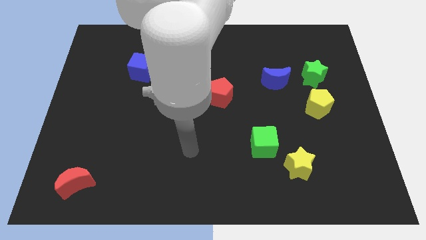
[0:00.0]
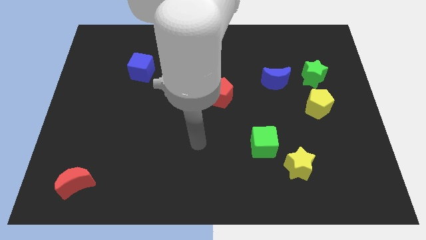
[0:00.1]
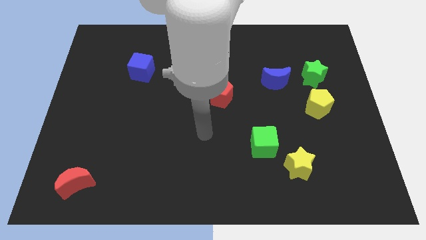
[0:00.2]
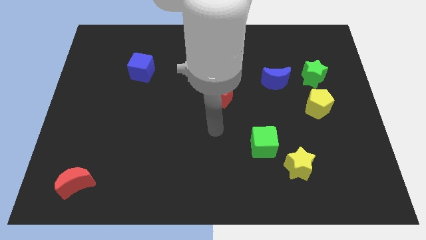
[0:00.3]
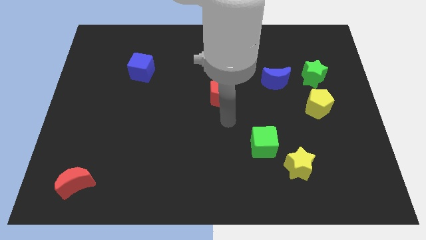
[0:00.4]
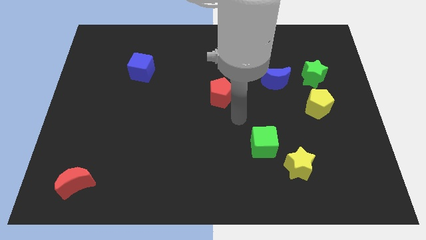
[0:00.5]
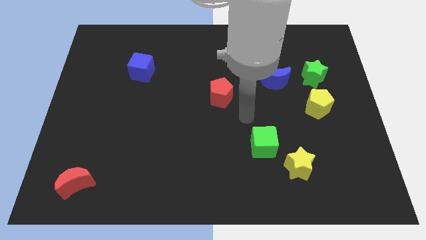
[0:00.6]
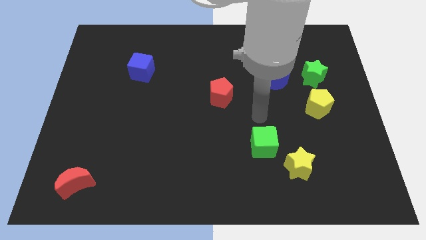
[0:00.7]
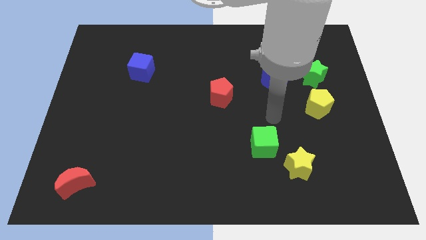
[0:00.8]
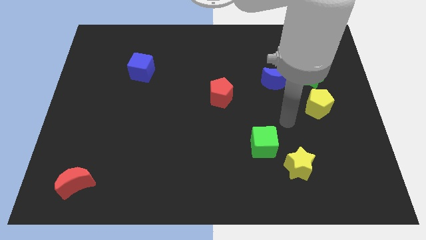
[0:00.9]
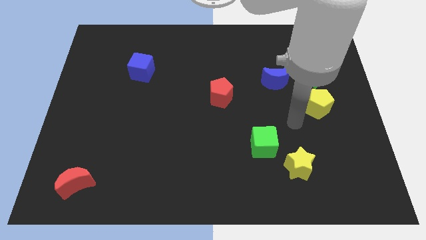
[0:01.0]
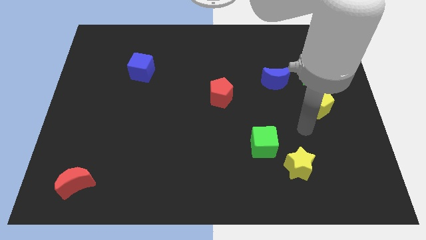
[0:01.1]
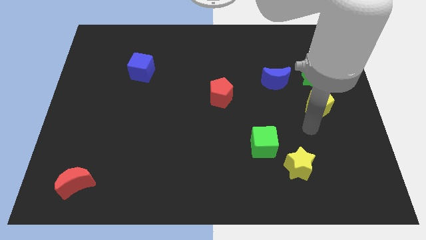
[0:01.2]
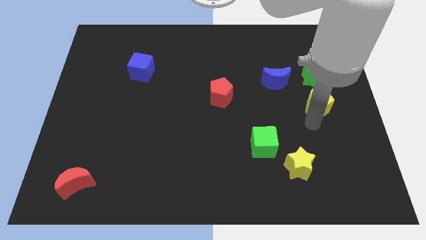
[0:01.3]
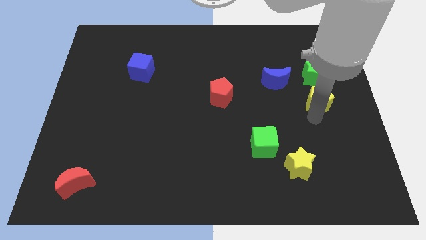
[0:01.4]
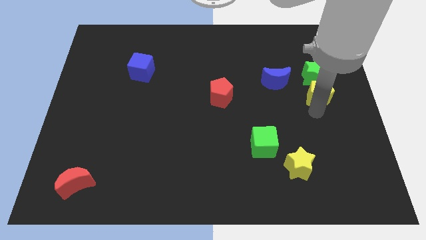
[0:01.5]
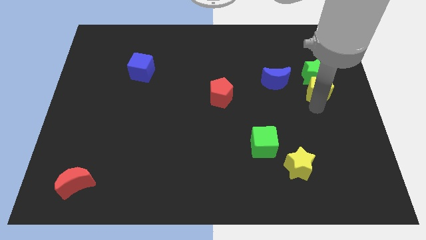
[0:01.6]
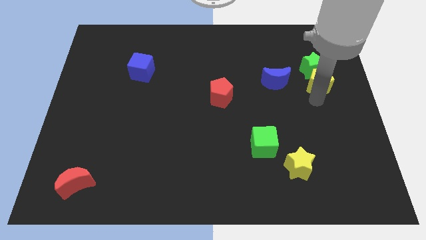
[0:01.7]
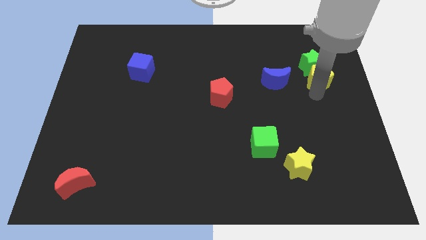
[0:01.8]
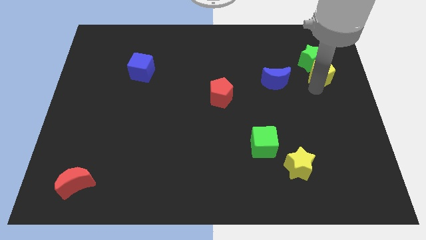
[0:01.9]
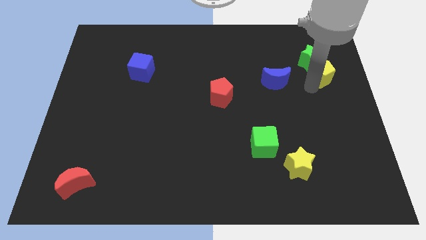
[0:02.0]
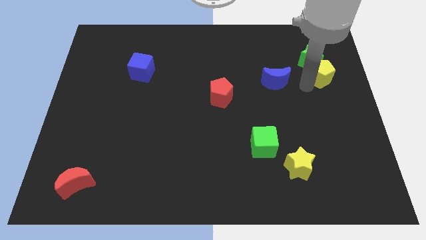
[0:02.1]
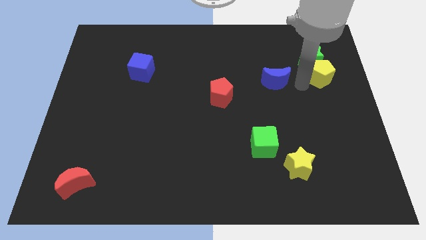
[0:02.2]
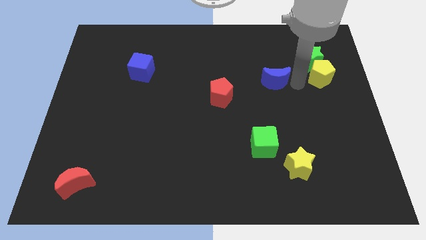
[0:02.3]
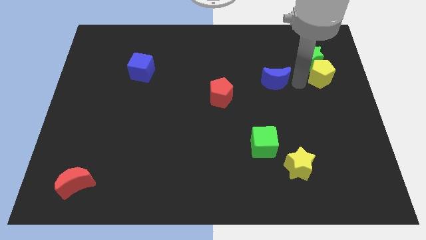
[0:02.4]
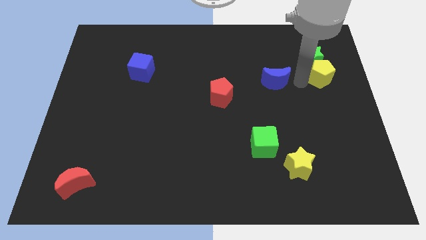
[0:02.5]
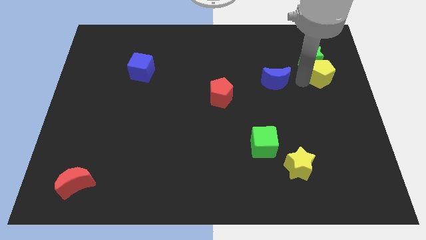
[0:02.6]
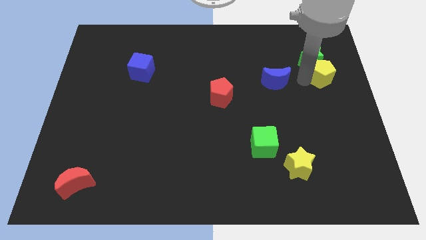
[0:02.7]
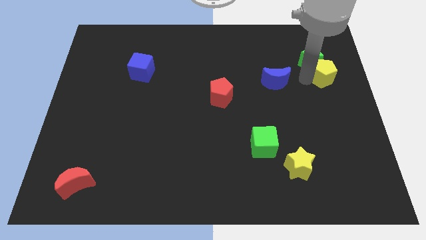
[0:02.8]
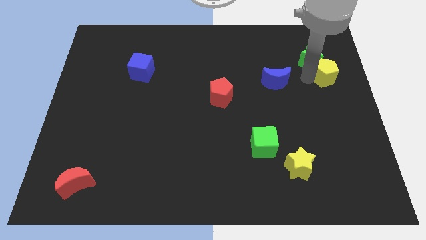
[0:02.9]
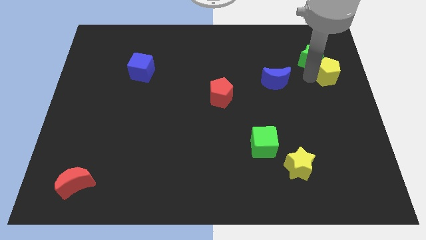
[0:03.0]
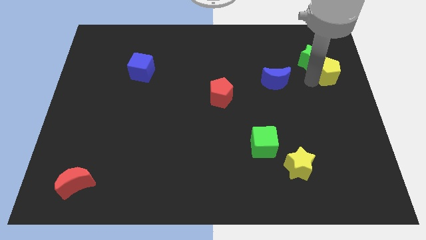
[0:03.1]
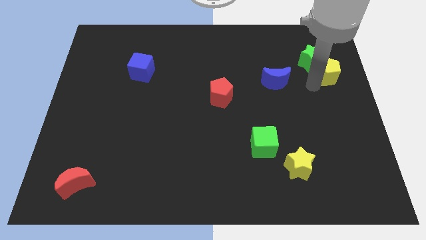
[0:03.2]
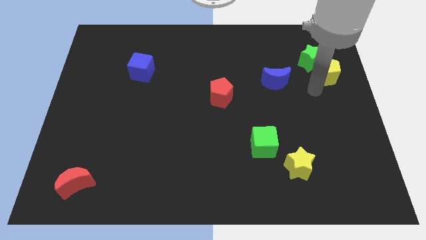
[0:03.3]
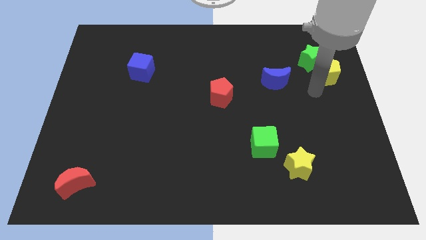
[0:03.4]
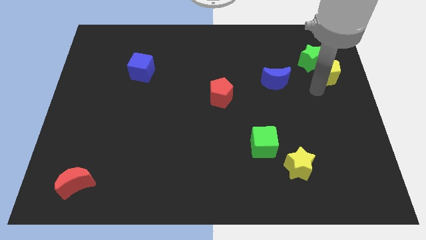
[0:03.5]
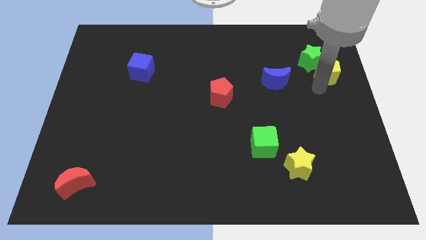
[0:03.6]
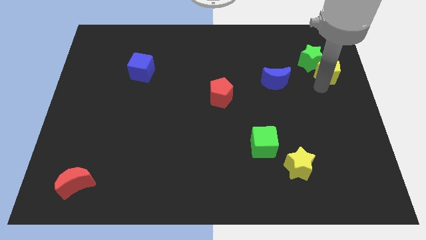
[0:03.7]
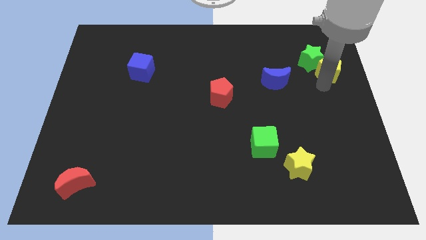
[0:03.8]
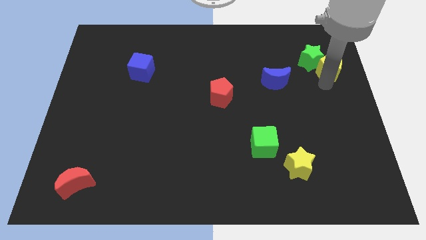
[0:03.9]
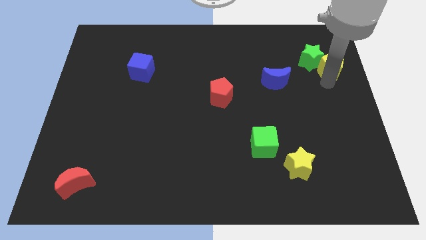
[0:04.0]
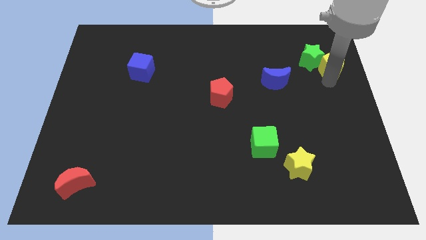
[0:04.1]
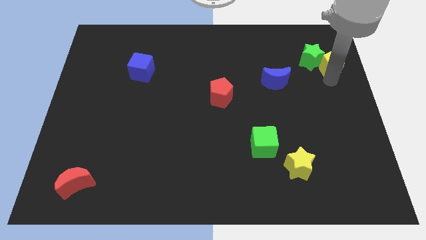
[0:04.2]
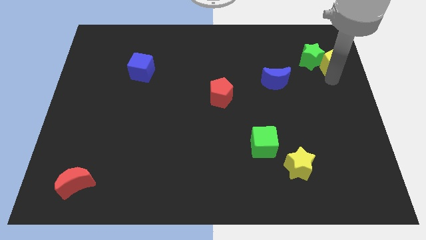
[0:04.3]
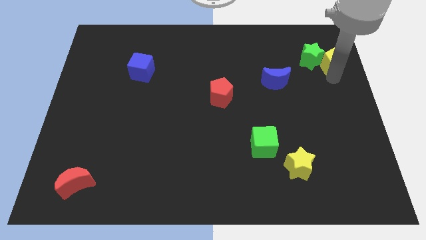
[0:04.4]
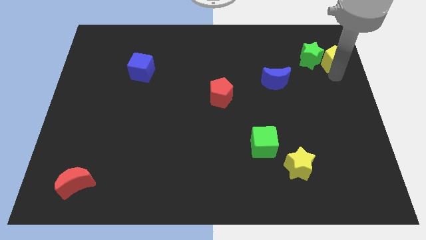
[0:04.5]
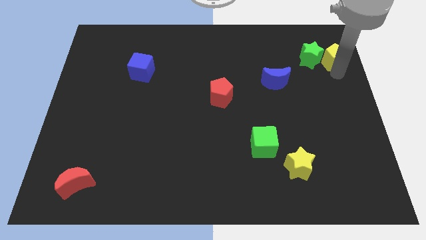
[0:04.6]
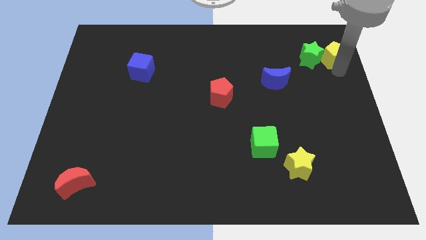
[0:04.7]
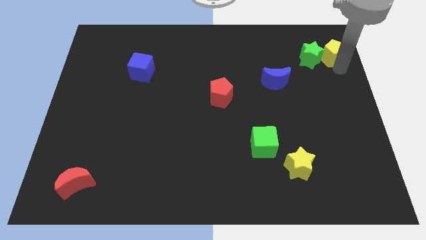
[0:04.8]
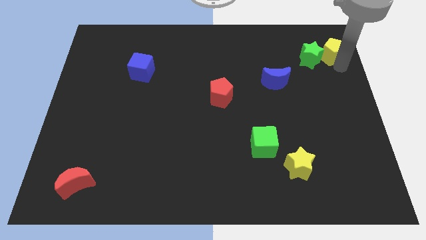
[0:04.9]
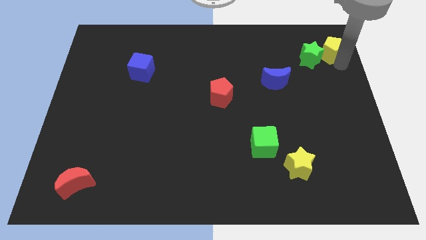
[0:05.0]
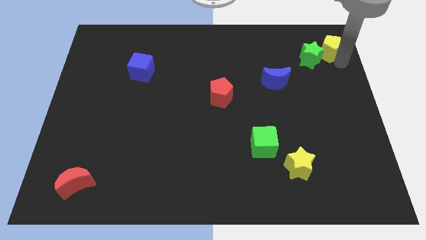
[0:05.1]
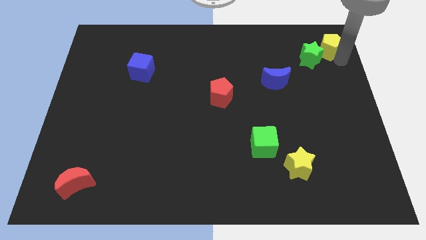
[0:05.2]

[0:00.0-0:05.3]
slide the yellow pentagon to the top right of the board

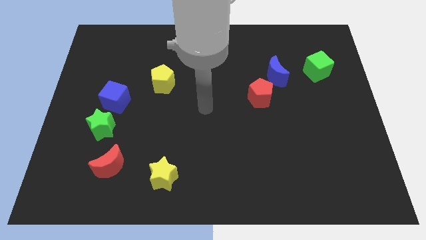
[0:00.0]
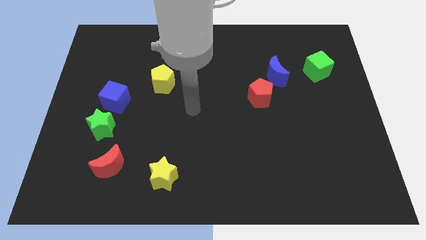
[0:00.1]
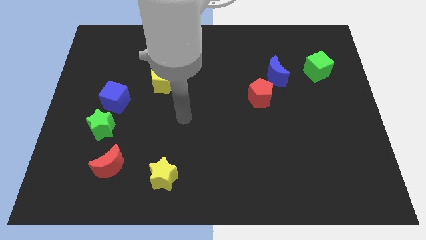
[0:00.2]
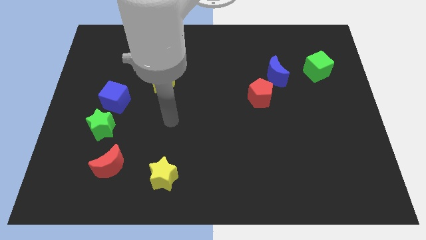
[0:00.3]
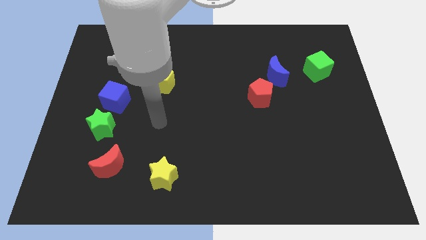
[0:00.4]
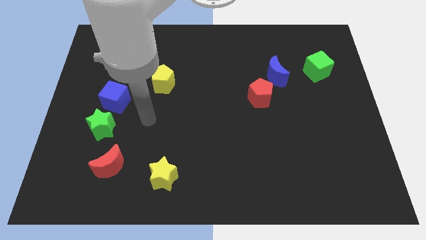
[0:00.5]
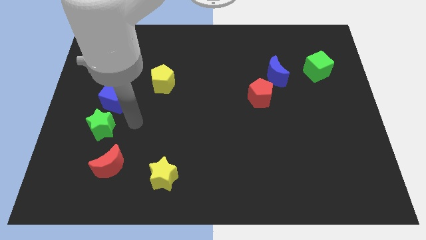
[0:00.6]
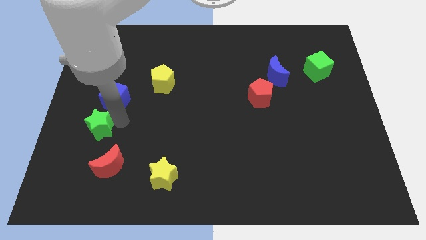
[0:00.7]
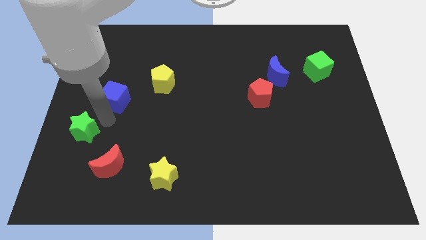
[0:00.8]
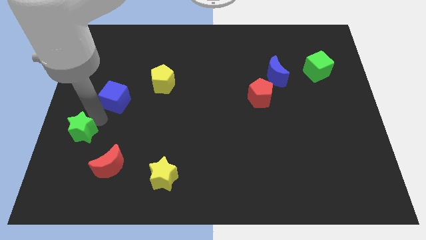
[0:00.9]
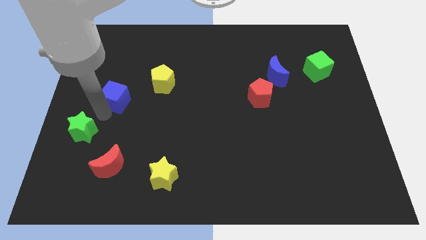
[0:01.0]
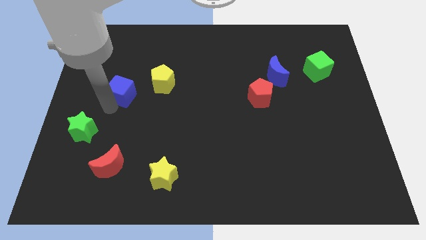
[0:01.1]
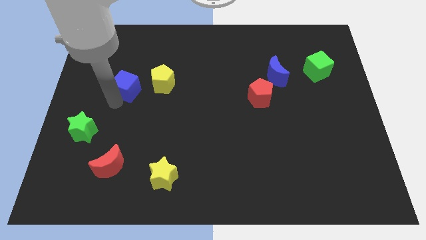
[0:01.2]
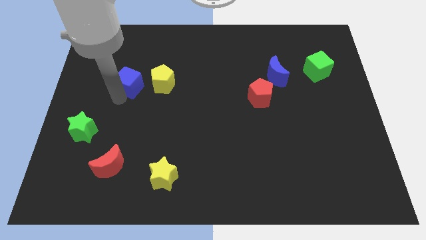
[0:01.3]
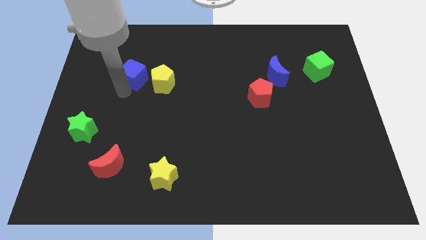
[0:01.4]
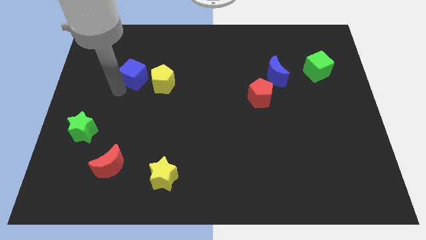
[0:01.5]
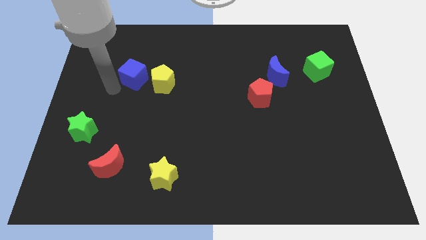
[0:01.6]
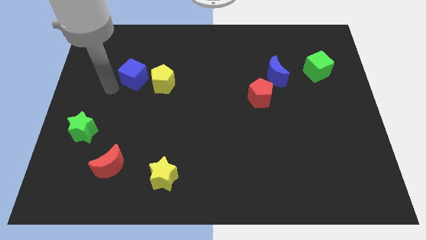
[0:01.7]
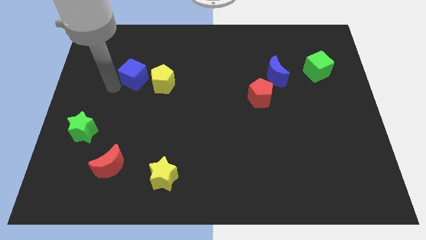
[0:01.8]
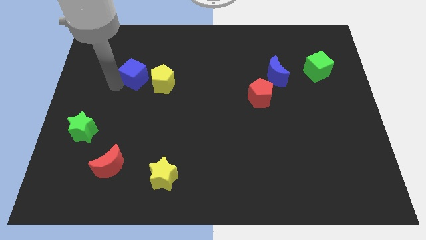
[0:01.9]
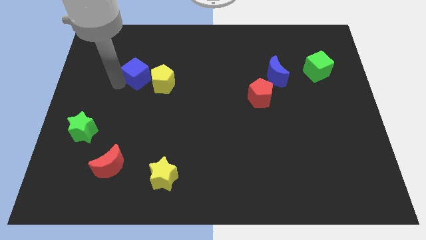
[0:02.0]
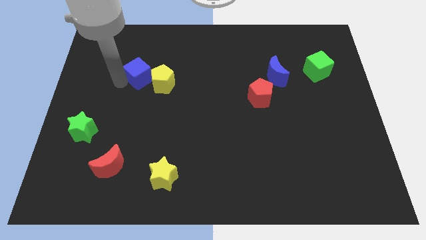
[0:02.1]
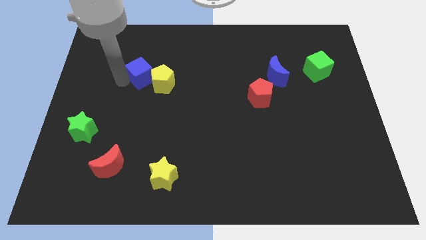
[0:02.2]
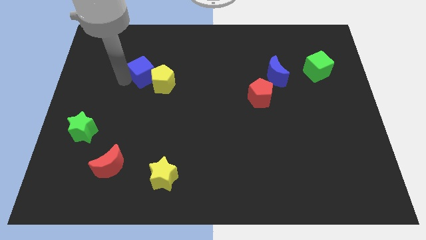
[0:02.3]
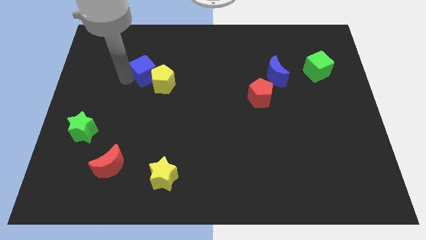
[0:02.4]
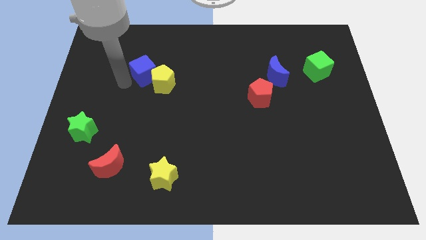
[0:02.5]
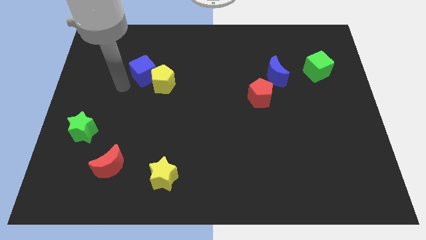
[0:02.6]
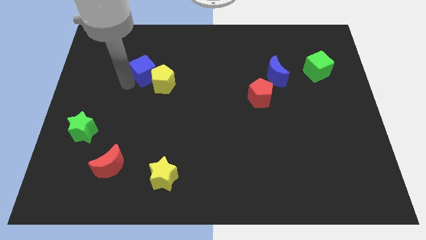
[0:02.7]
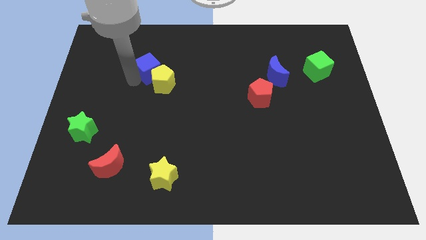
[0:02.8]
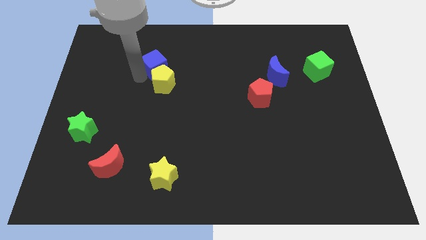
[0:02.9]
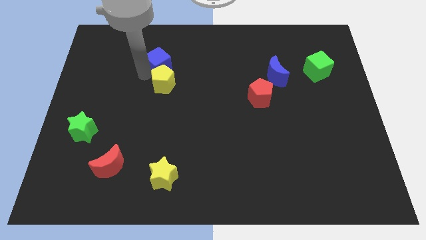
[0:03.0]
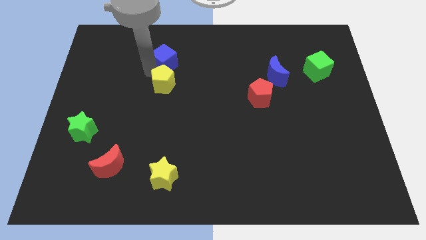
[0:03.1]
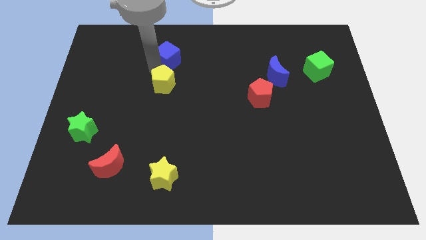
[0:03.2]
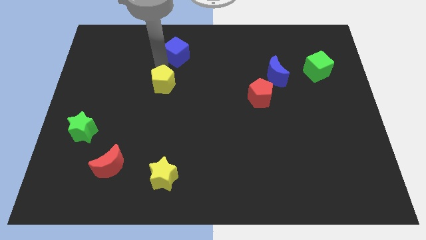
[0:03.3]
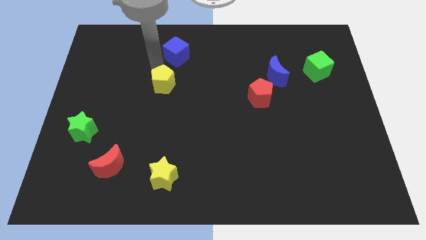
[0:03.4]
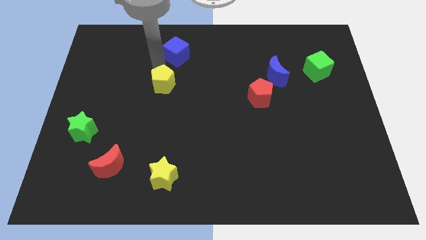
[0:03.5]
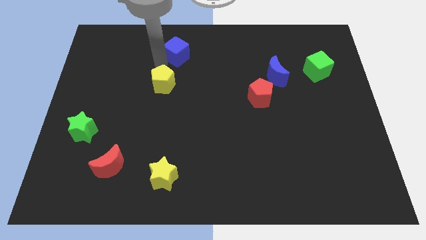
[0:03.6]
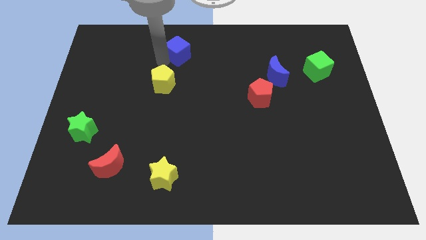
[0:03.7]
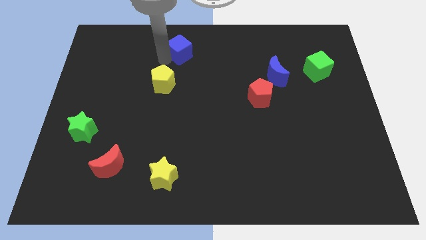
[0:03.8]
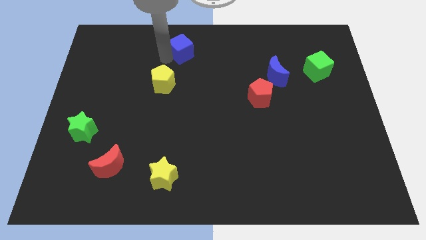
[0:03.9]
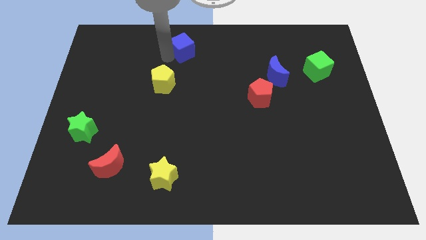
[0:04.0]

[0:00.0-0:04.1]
slide the blue cube to the towards your base
